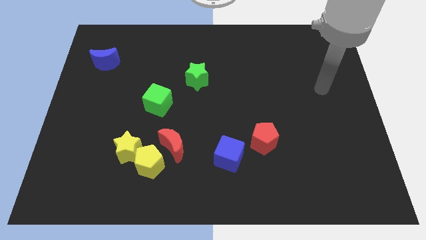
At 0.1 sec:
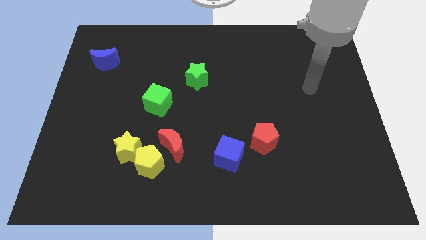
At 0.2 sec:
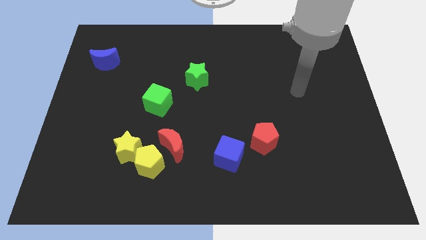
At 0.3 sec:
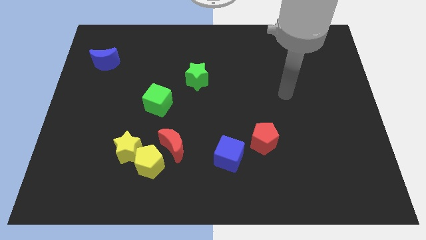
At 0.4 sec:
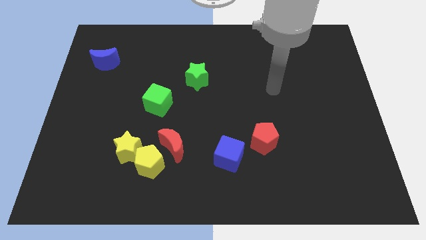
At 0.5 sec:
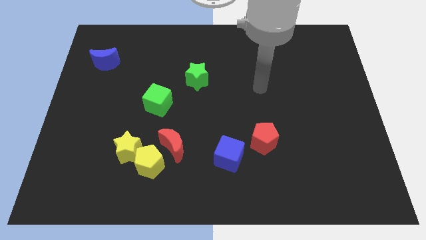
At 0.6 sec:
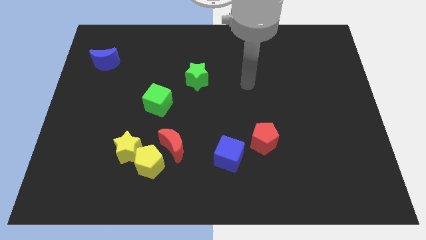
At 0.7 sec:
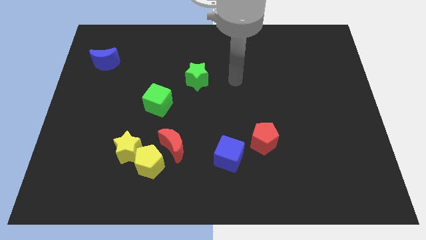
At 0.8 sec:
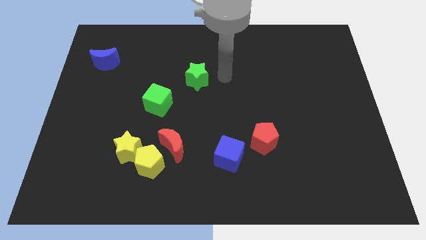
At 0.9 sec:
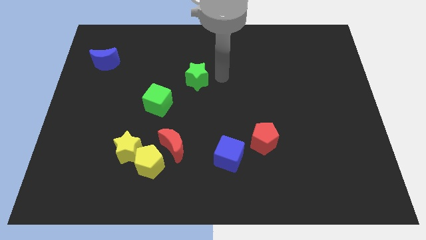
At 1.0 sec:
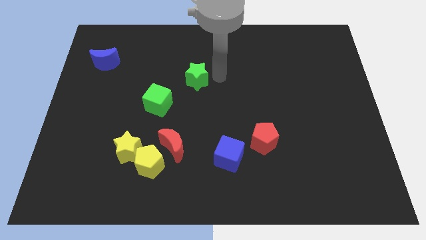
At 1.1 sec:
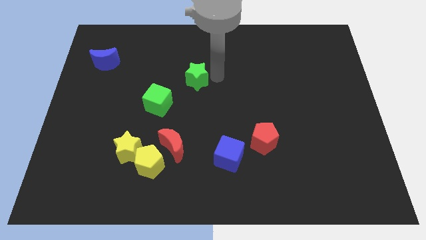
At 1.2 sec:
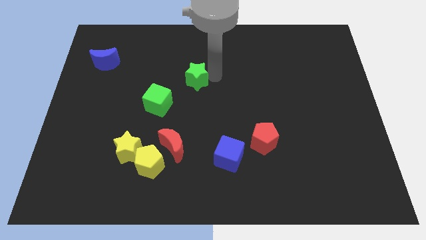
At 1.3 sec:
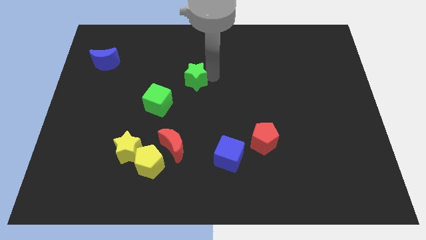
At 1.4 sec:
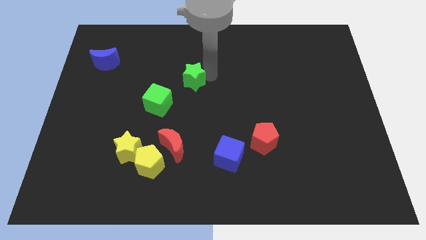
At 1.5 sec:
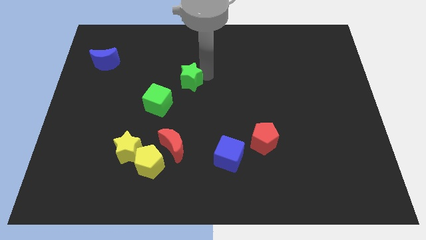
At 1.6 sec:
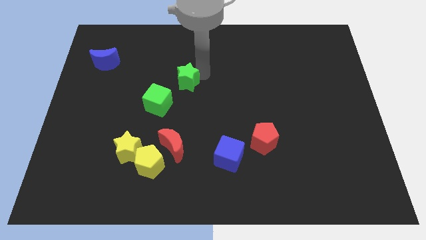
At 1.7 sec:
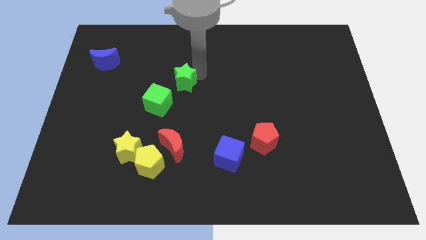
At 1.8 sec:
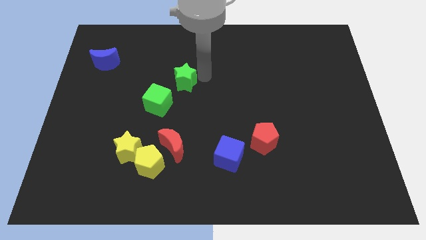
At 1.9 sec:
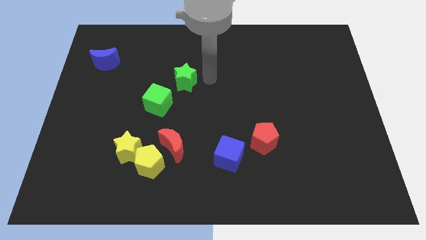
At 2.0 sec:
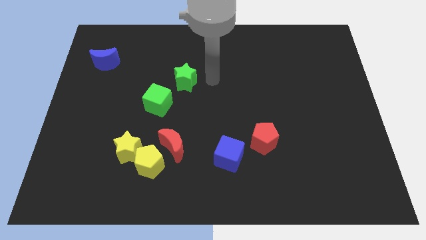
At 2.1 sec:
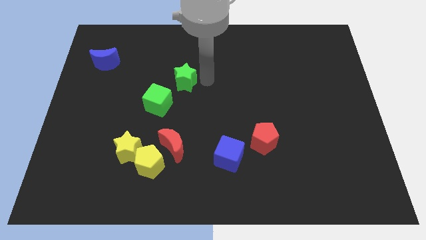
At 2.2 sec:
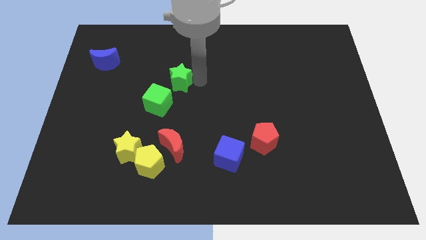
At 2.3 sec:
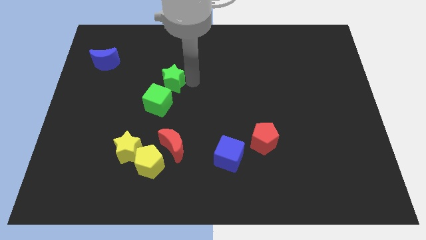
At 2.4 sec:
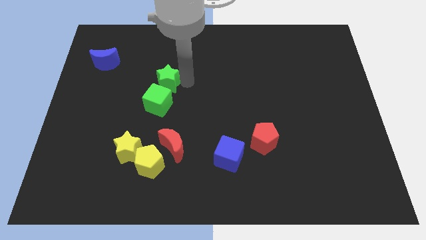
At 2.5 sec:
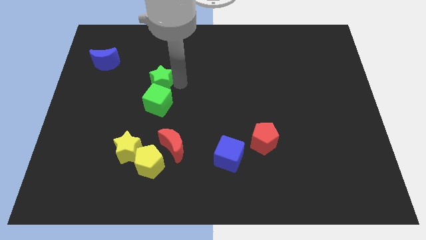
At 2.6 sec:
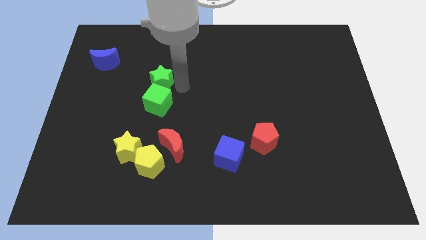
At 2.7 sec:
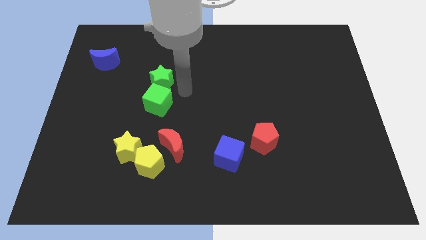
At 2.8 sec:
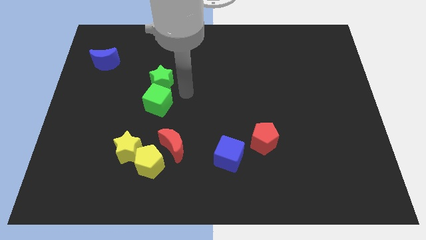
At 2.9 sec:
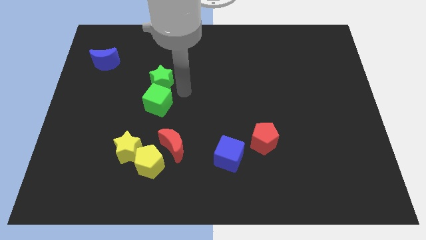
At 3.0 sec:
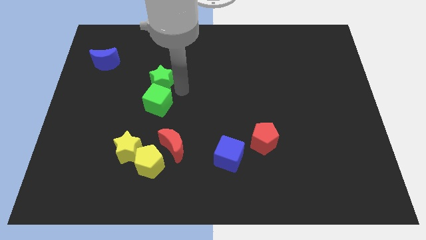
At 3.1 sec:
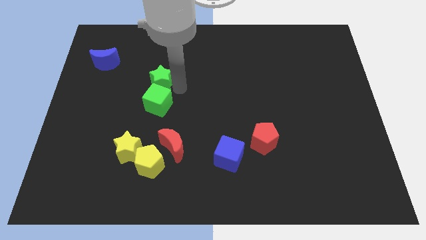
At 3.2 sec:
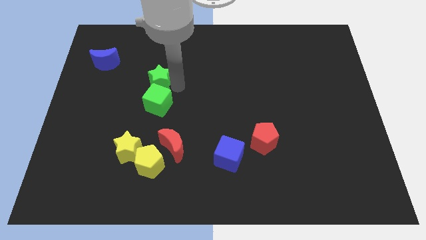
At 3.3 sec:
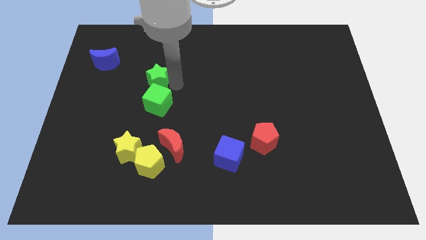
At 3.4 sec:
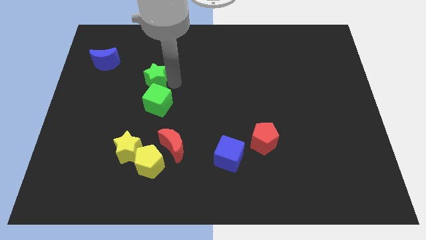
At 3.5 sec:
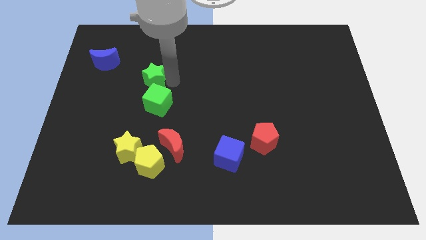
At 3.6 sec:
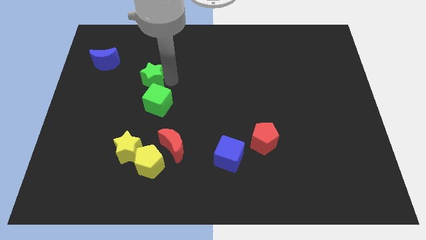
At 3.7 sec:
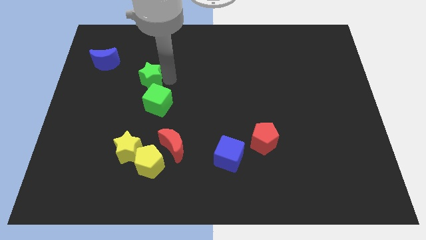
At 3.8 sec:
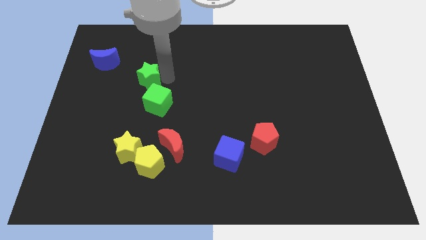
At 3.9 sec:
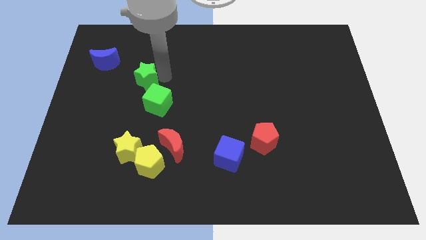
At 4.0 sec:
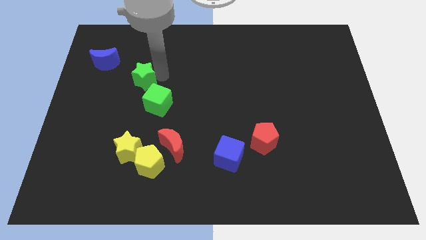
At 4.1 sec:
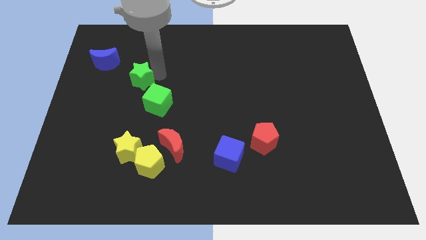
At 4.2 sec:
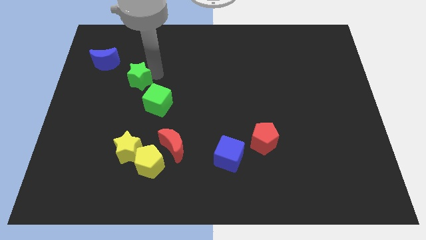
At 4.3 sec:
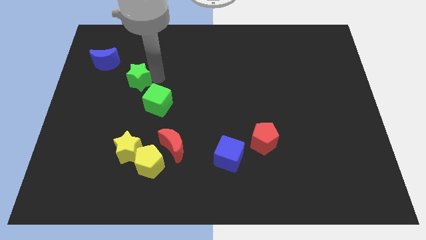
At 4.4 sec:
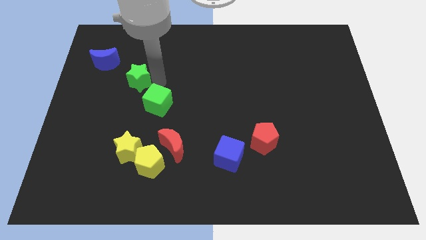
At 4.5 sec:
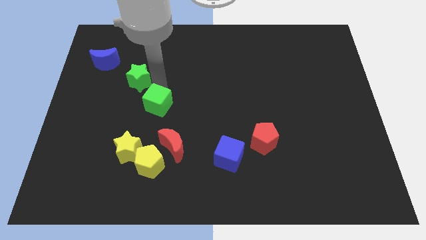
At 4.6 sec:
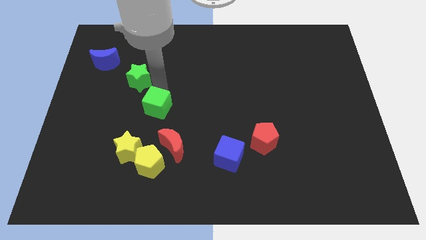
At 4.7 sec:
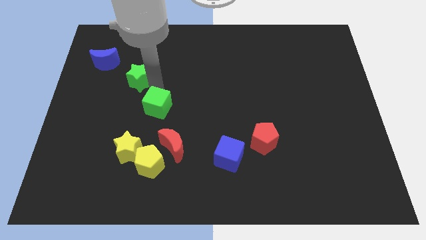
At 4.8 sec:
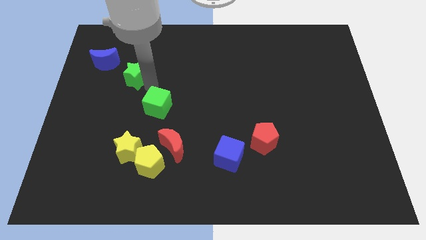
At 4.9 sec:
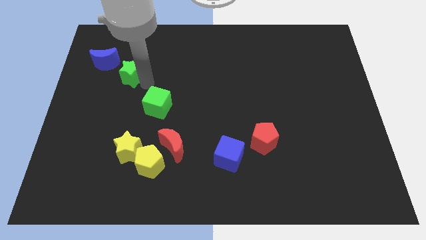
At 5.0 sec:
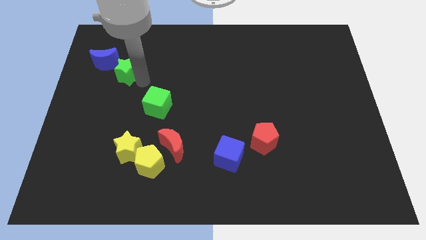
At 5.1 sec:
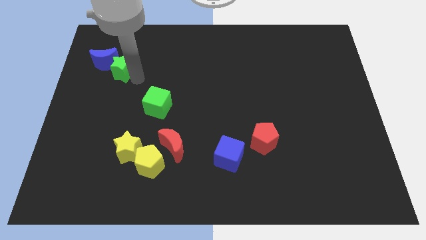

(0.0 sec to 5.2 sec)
slide the green star to the blue moon

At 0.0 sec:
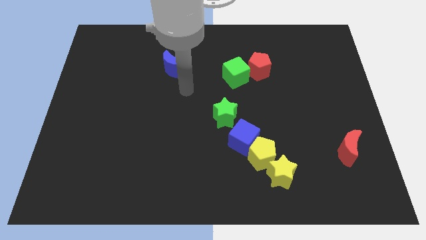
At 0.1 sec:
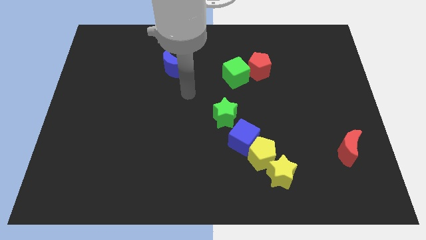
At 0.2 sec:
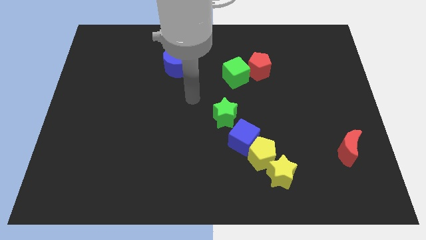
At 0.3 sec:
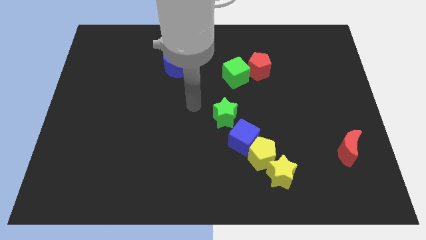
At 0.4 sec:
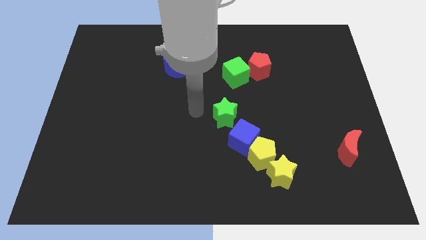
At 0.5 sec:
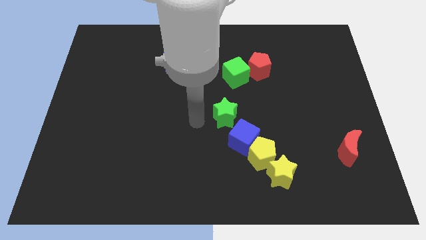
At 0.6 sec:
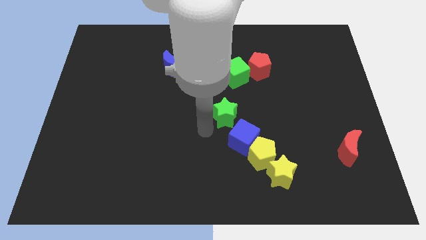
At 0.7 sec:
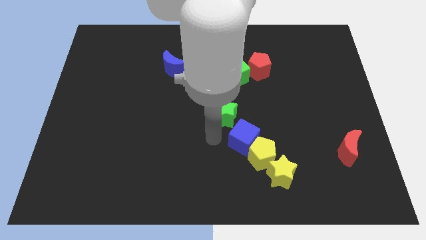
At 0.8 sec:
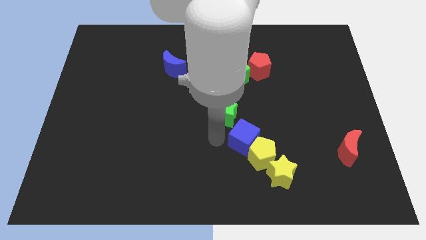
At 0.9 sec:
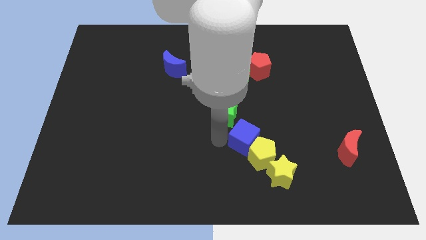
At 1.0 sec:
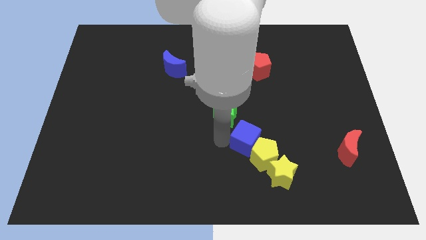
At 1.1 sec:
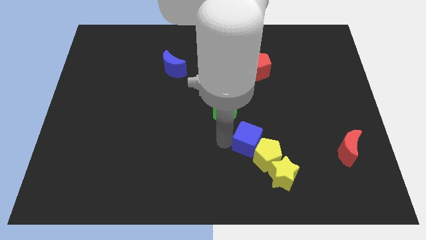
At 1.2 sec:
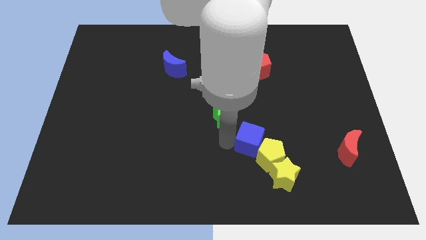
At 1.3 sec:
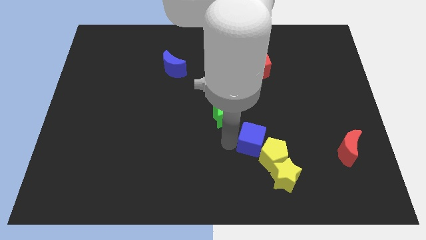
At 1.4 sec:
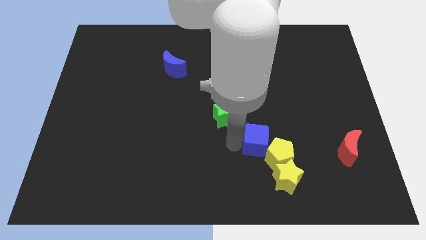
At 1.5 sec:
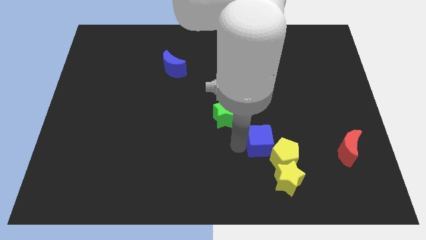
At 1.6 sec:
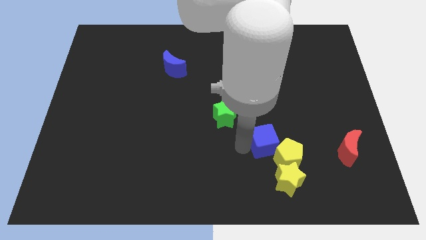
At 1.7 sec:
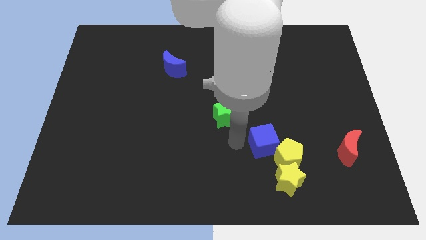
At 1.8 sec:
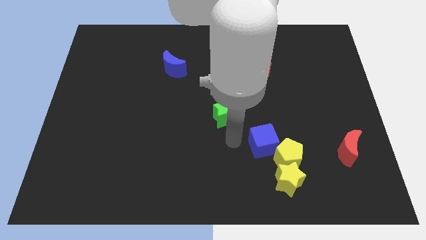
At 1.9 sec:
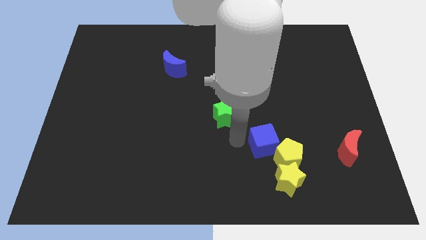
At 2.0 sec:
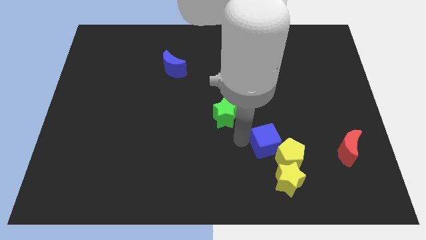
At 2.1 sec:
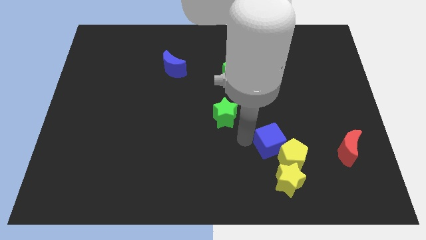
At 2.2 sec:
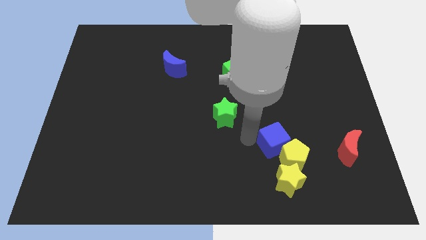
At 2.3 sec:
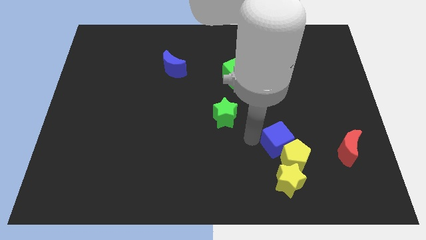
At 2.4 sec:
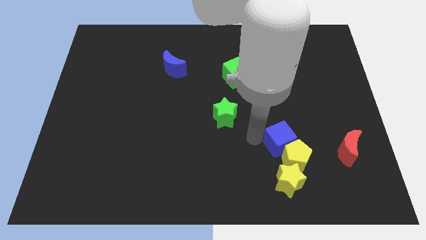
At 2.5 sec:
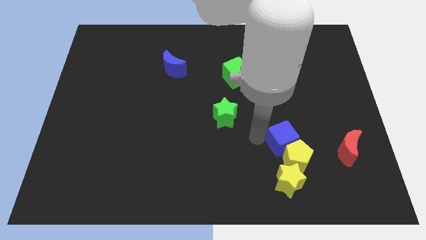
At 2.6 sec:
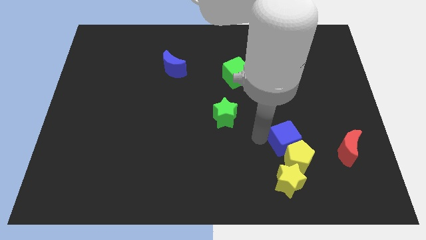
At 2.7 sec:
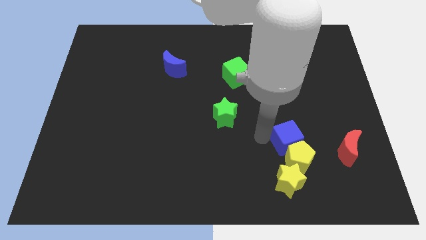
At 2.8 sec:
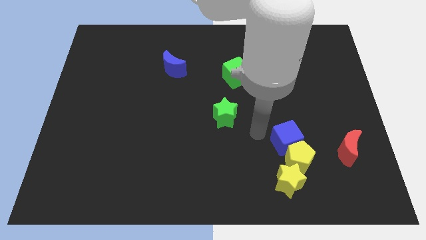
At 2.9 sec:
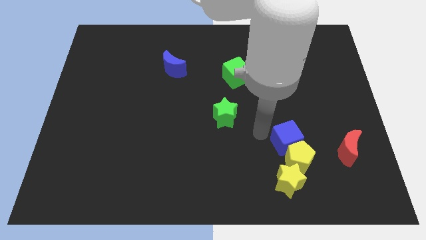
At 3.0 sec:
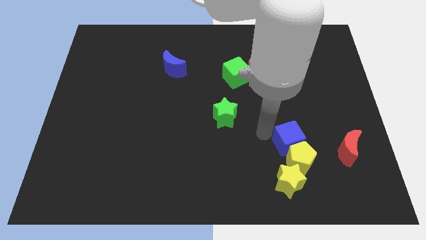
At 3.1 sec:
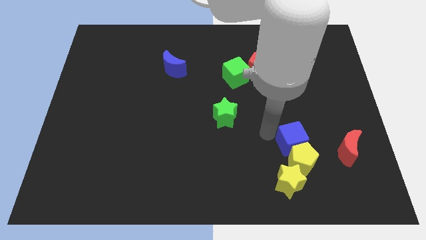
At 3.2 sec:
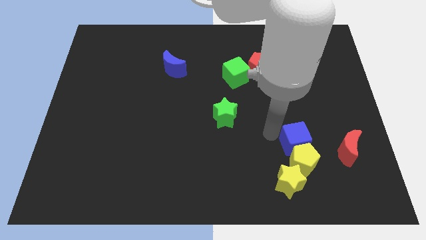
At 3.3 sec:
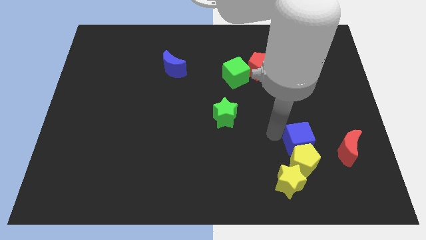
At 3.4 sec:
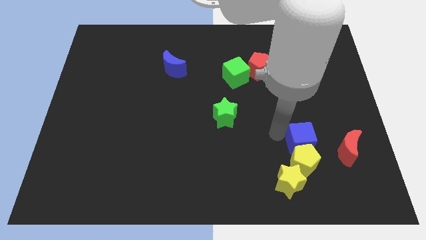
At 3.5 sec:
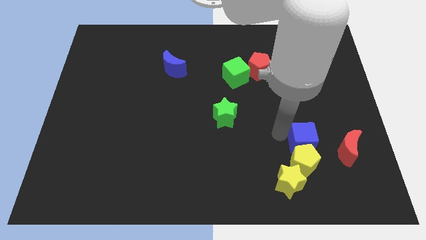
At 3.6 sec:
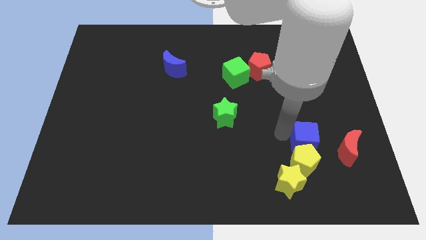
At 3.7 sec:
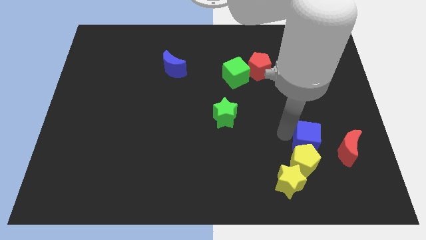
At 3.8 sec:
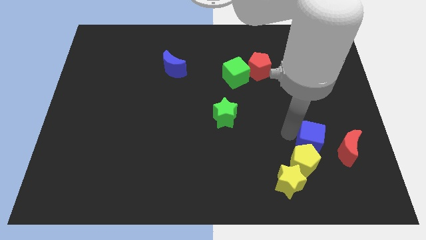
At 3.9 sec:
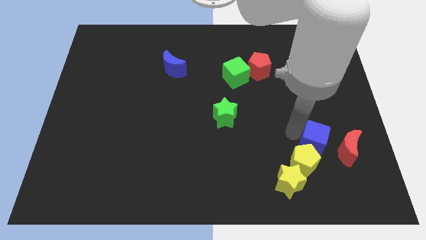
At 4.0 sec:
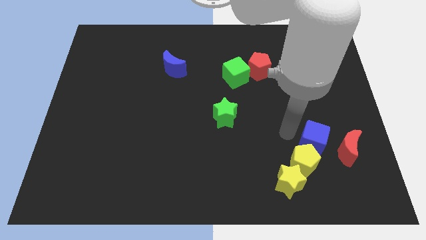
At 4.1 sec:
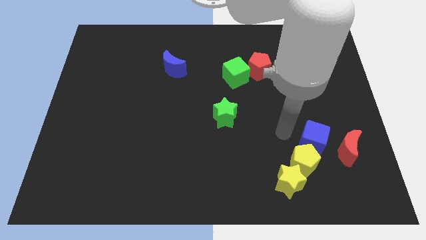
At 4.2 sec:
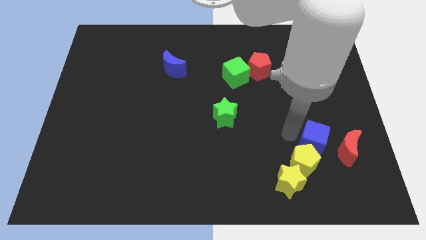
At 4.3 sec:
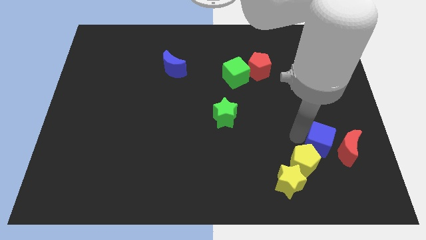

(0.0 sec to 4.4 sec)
push the blue cube towards the red moon
